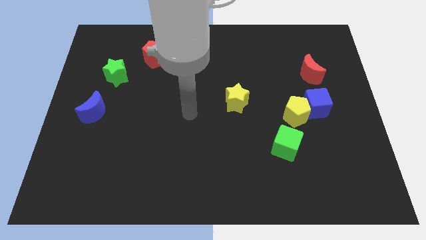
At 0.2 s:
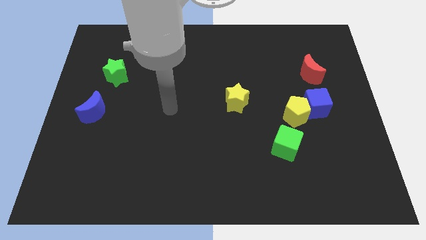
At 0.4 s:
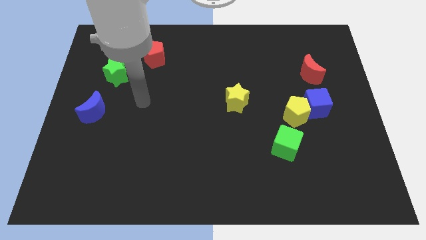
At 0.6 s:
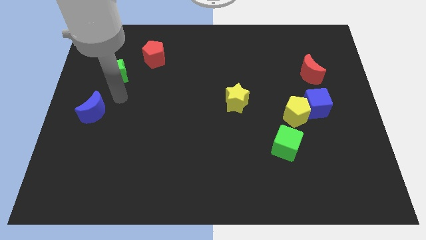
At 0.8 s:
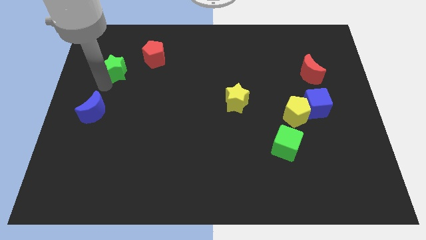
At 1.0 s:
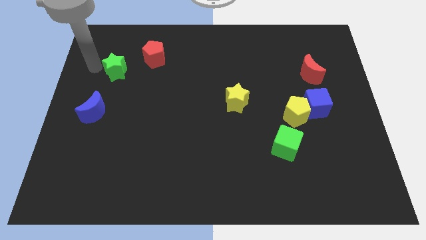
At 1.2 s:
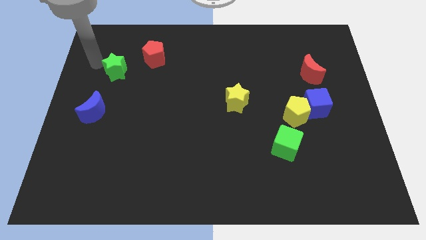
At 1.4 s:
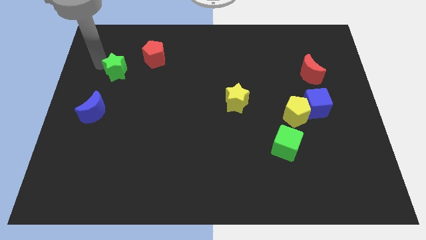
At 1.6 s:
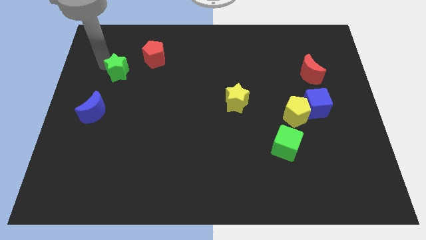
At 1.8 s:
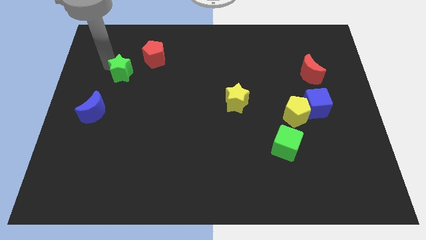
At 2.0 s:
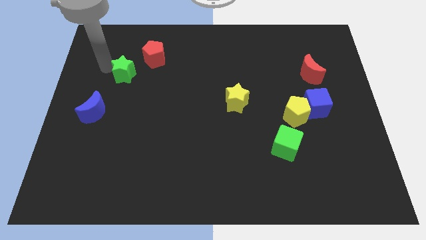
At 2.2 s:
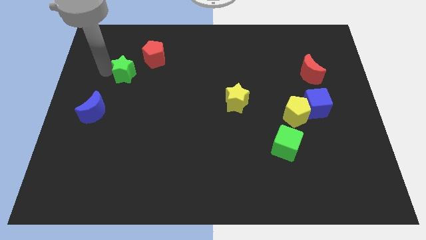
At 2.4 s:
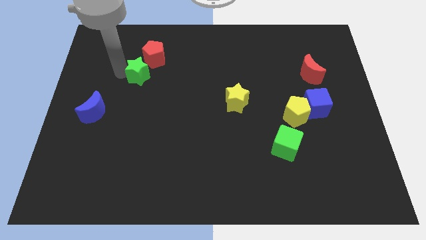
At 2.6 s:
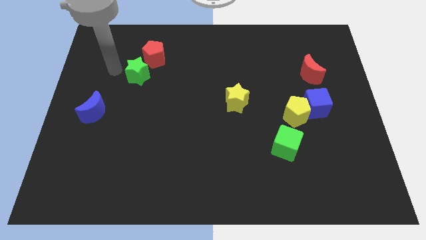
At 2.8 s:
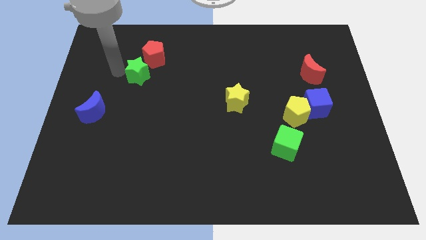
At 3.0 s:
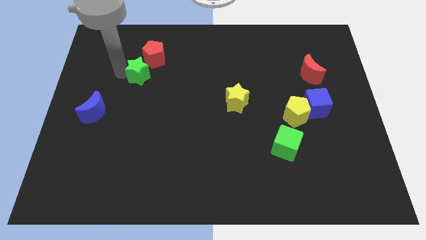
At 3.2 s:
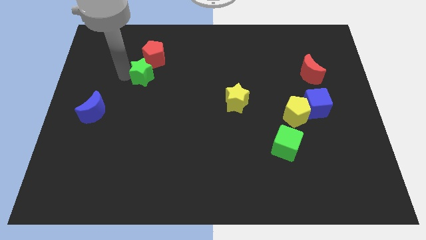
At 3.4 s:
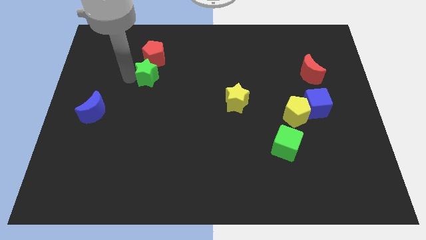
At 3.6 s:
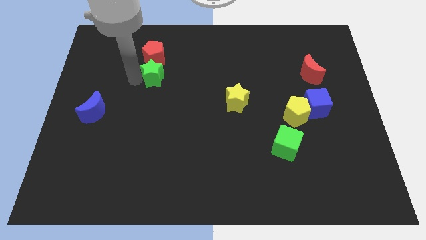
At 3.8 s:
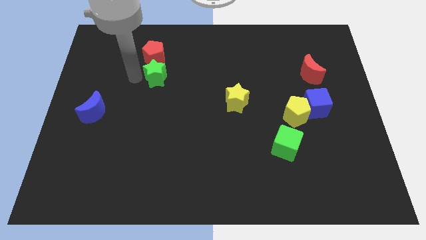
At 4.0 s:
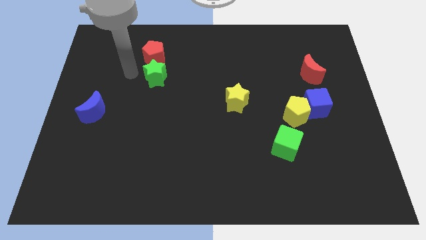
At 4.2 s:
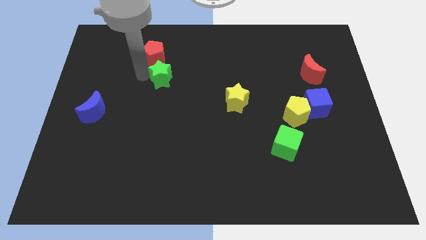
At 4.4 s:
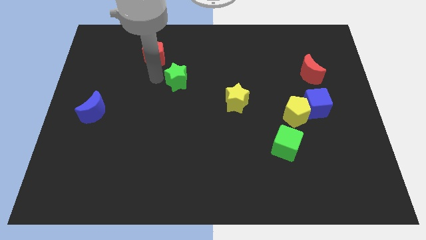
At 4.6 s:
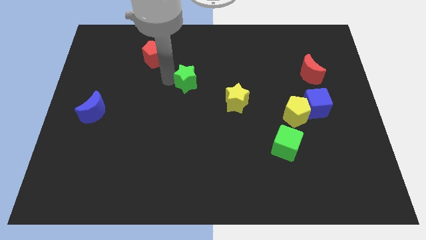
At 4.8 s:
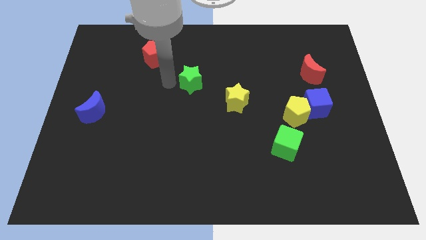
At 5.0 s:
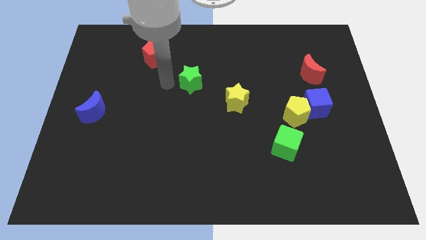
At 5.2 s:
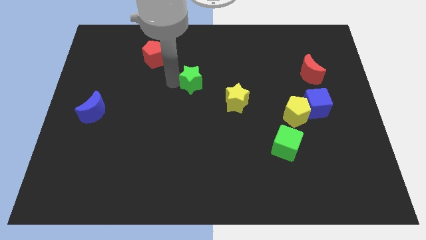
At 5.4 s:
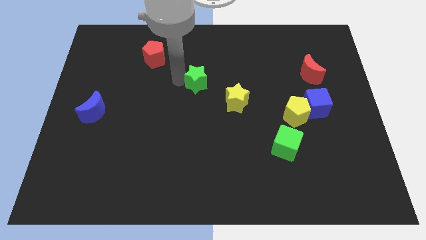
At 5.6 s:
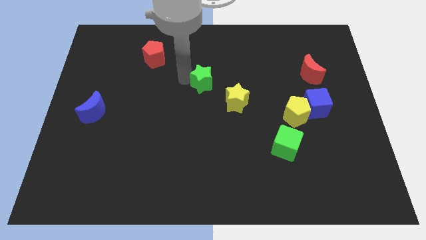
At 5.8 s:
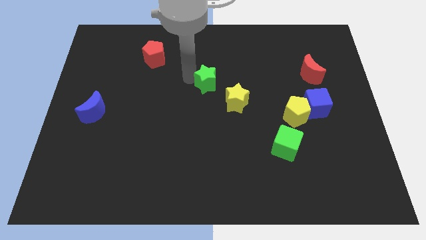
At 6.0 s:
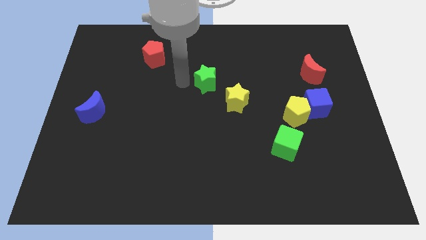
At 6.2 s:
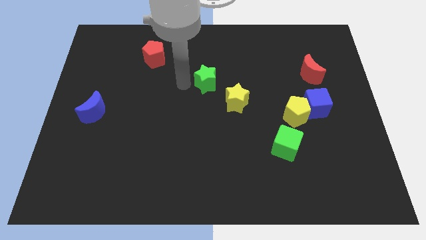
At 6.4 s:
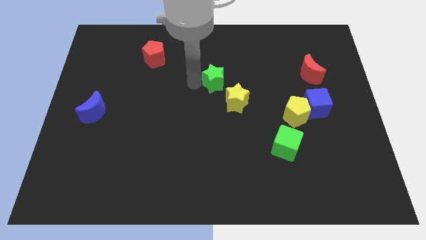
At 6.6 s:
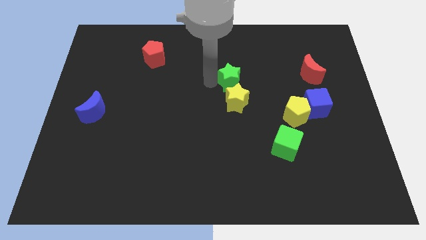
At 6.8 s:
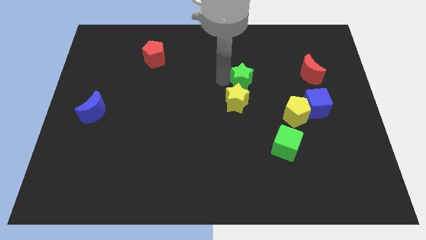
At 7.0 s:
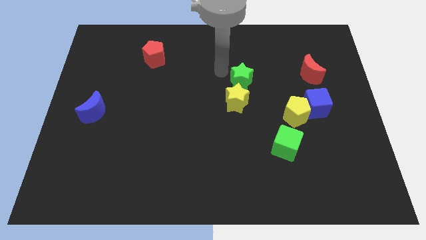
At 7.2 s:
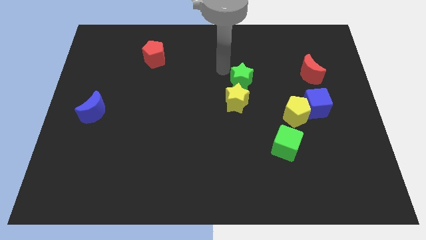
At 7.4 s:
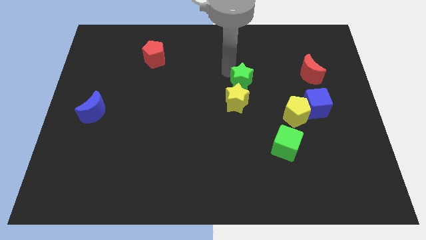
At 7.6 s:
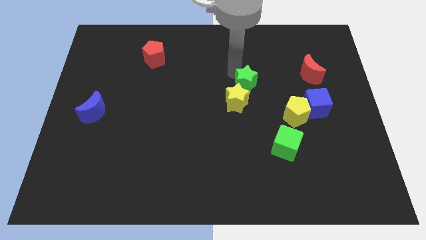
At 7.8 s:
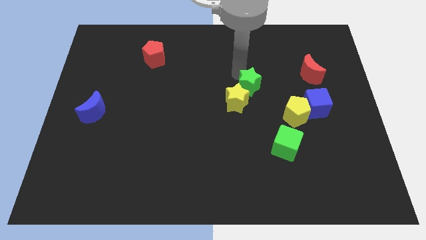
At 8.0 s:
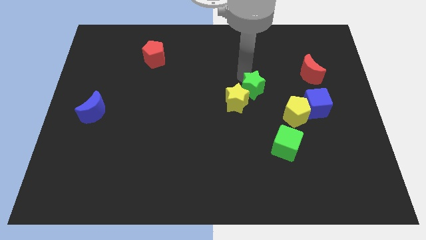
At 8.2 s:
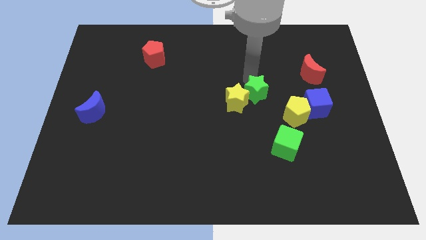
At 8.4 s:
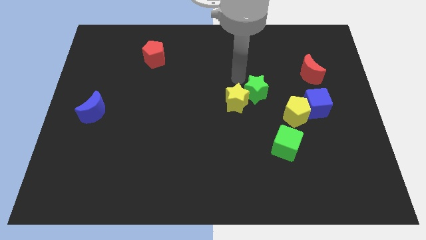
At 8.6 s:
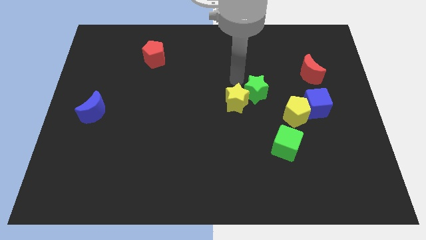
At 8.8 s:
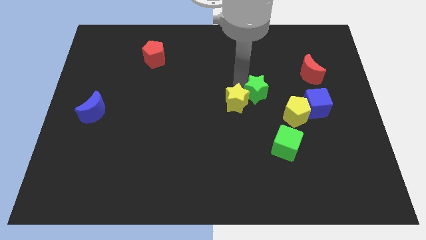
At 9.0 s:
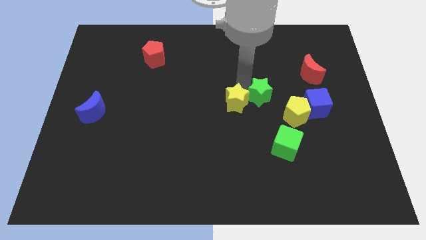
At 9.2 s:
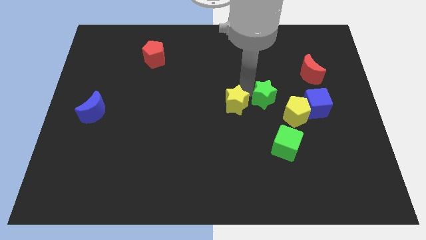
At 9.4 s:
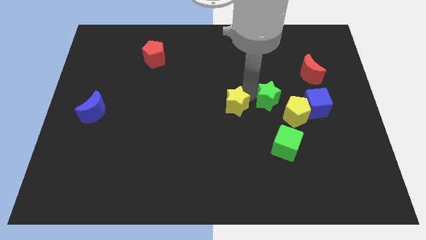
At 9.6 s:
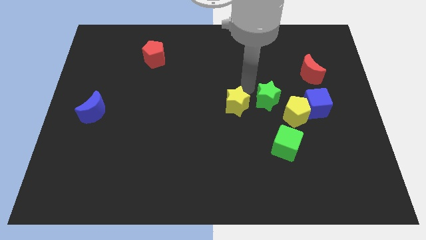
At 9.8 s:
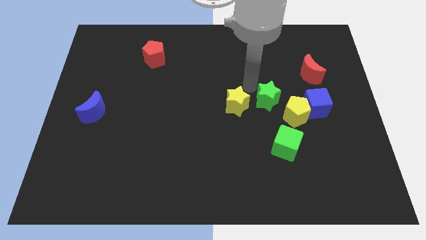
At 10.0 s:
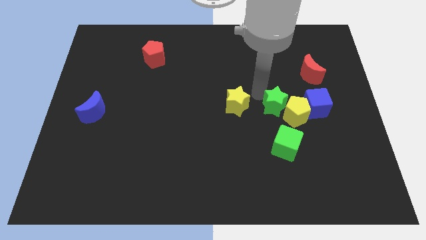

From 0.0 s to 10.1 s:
slide the green star towards the yellow pentagon

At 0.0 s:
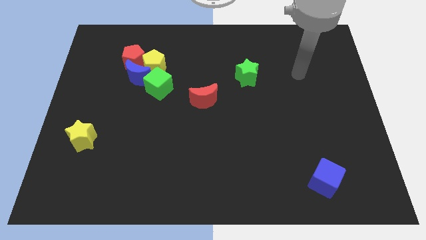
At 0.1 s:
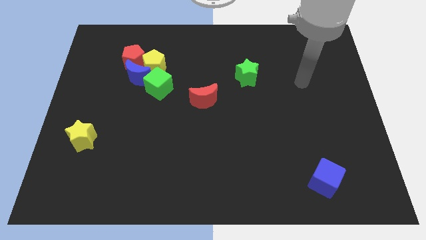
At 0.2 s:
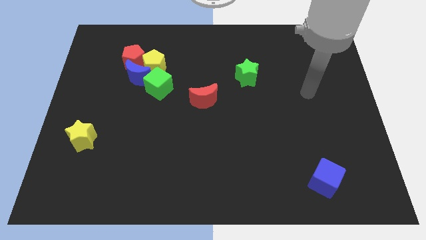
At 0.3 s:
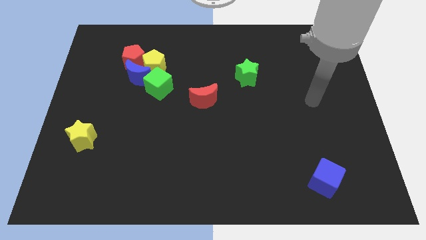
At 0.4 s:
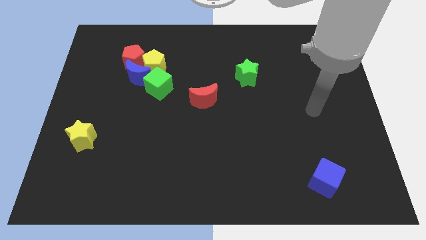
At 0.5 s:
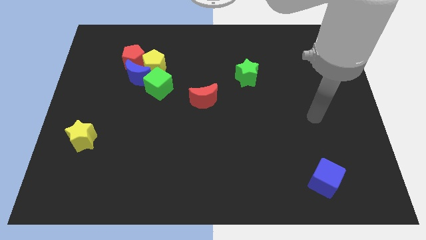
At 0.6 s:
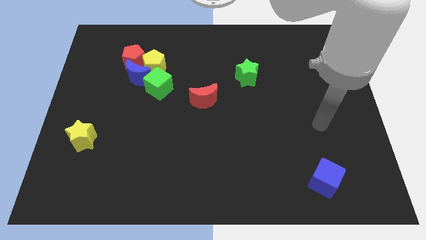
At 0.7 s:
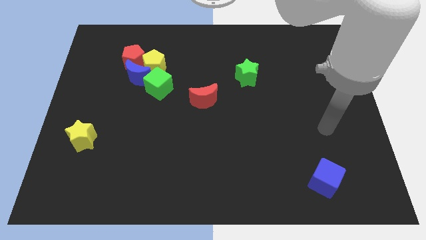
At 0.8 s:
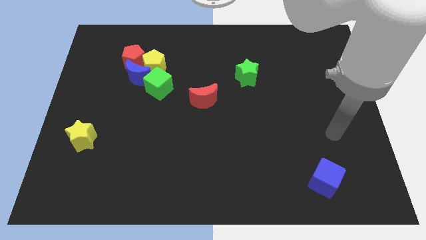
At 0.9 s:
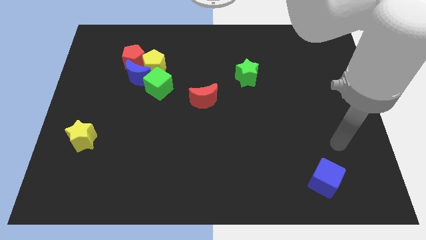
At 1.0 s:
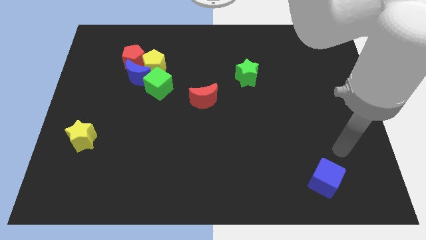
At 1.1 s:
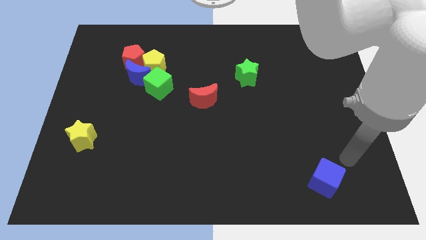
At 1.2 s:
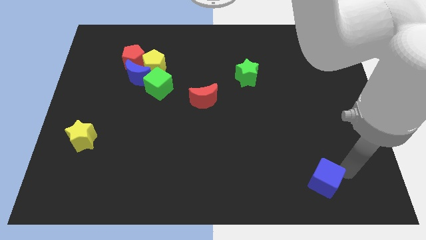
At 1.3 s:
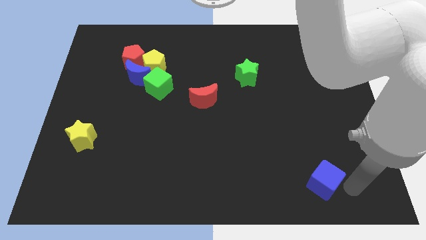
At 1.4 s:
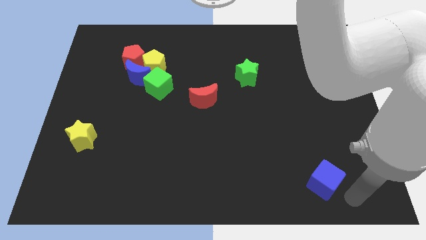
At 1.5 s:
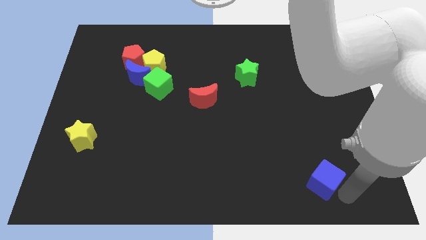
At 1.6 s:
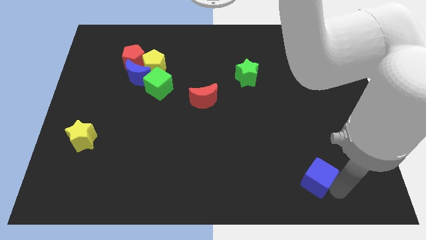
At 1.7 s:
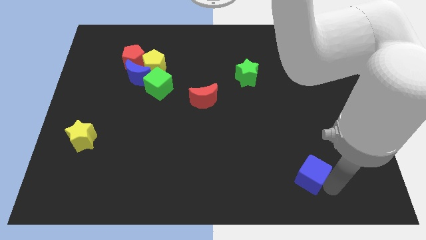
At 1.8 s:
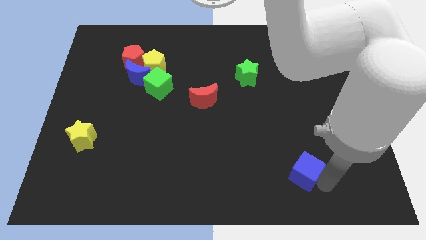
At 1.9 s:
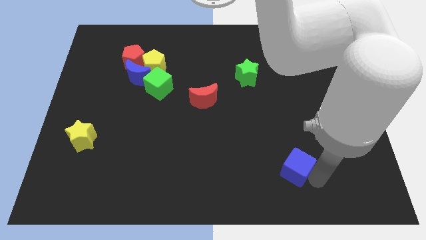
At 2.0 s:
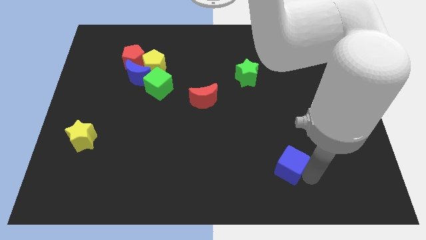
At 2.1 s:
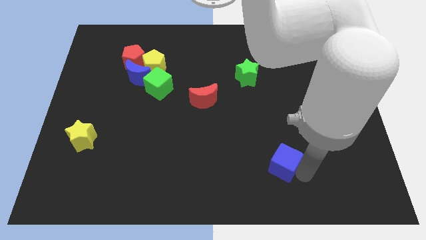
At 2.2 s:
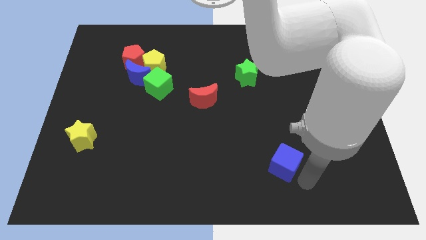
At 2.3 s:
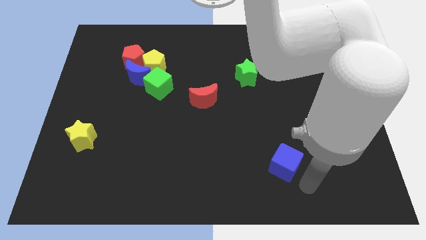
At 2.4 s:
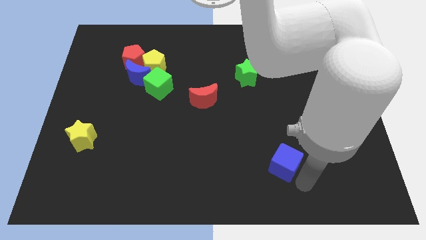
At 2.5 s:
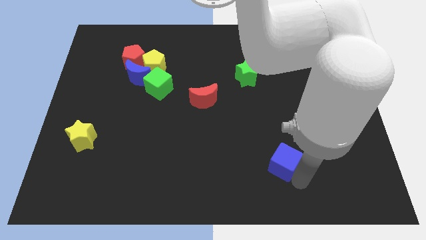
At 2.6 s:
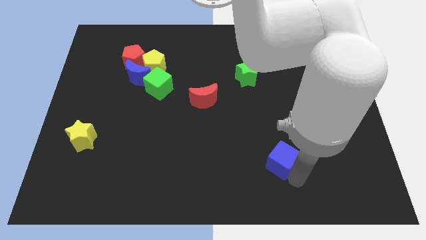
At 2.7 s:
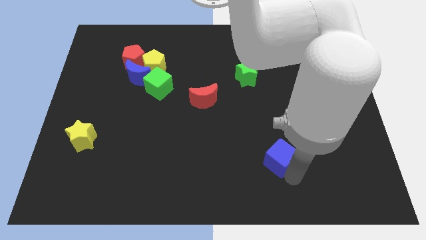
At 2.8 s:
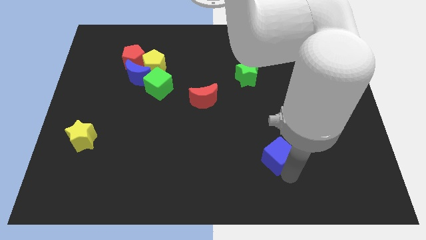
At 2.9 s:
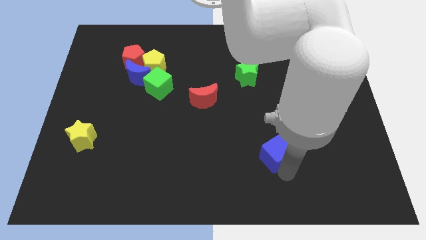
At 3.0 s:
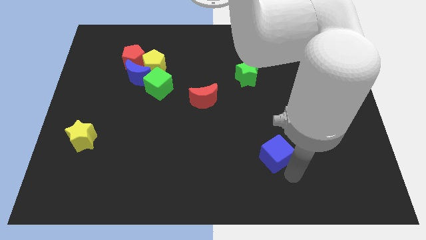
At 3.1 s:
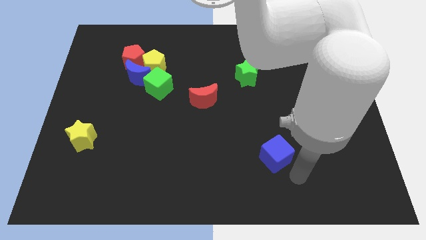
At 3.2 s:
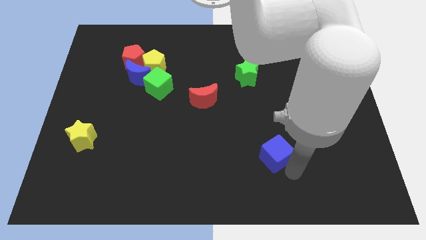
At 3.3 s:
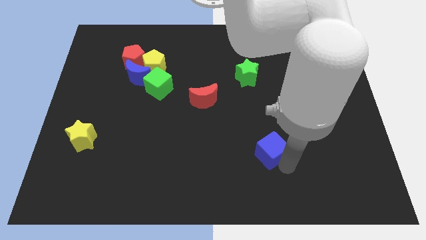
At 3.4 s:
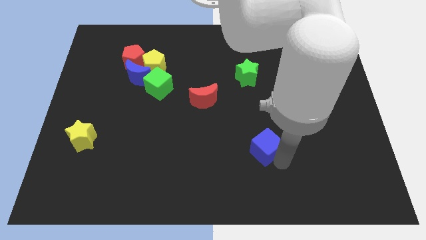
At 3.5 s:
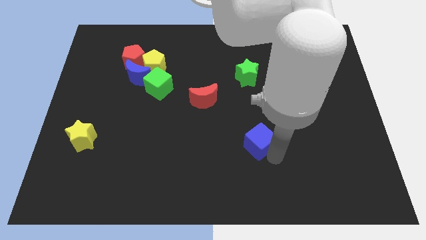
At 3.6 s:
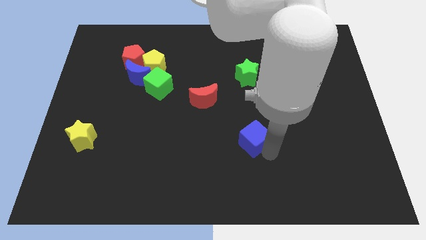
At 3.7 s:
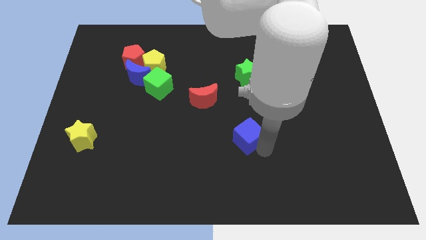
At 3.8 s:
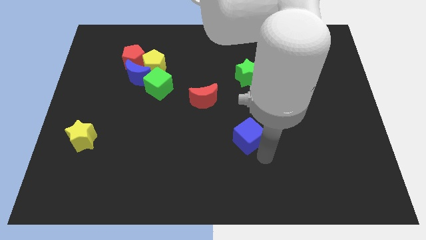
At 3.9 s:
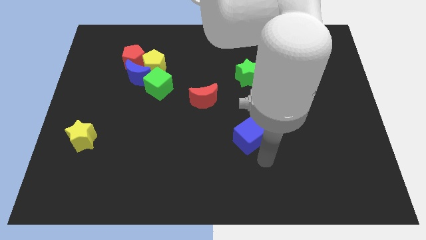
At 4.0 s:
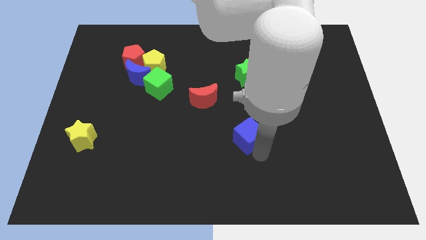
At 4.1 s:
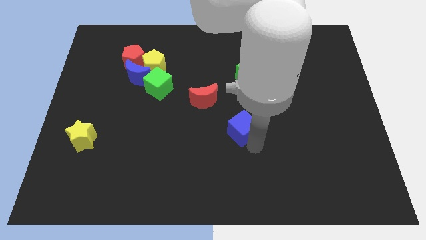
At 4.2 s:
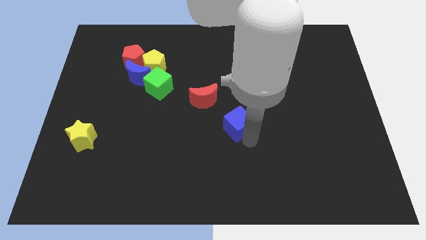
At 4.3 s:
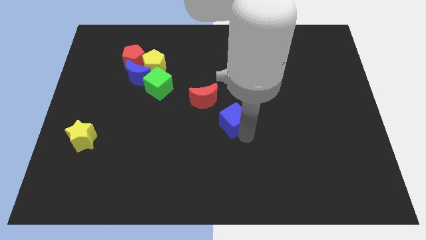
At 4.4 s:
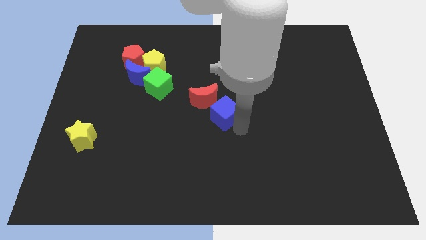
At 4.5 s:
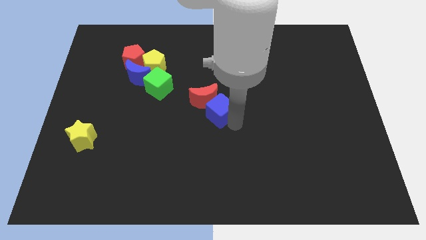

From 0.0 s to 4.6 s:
push the blue cube next to the red moon
